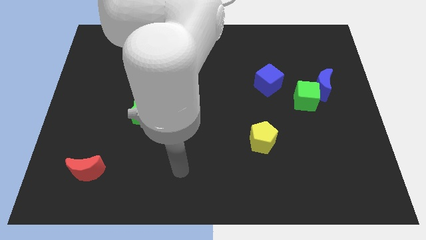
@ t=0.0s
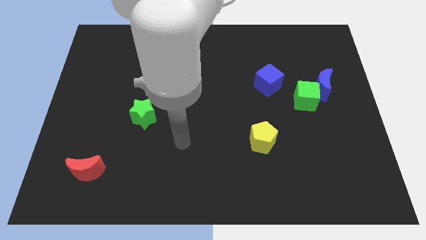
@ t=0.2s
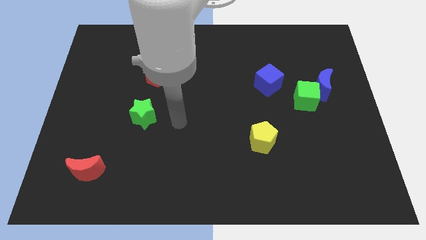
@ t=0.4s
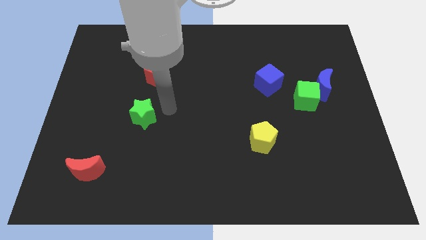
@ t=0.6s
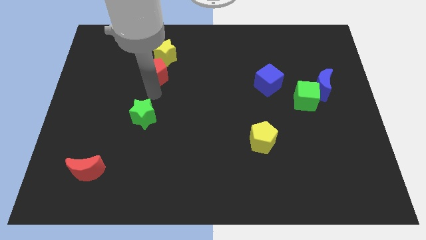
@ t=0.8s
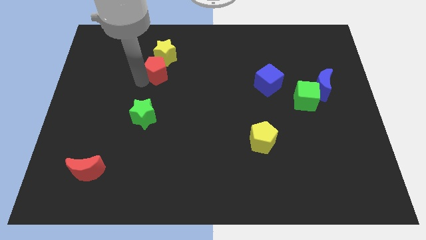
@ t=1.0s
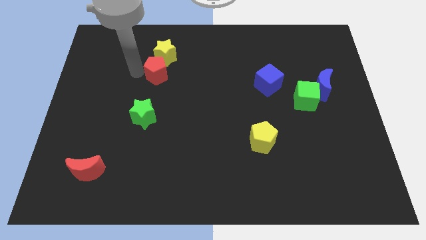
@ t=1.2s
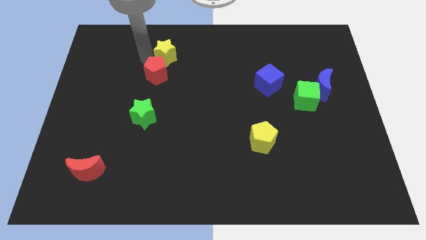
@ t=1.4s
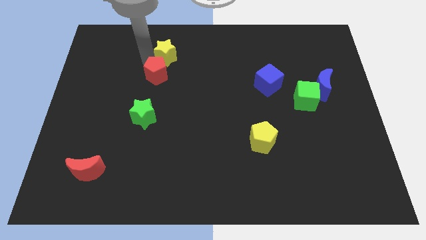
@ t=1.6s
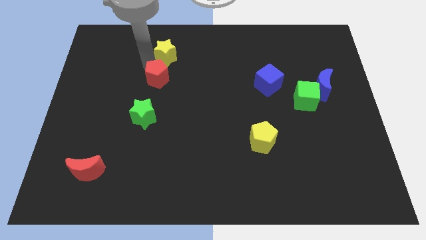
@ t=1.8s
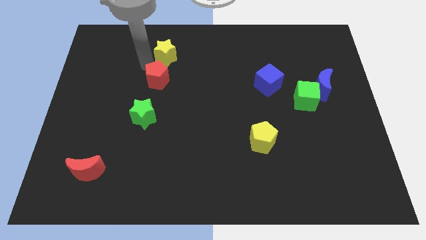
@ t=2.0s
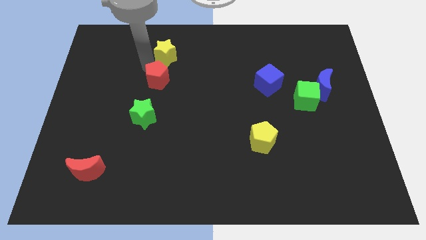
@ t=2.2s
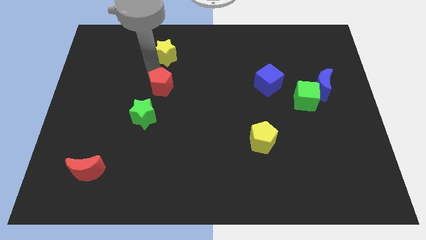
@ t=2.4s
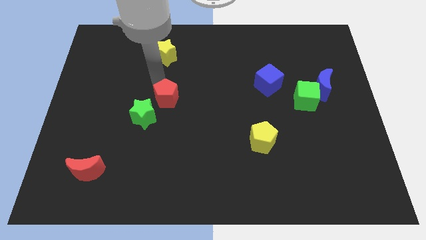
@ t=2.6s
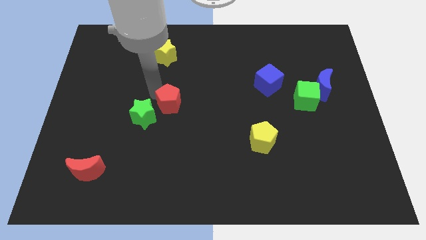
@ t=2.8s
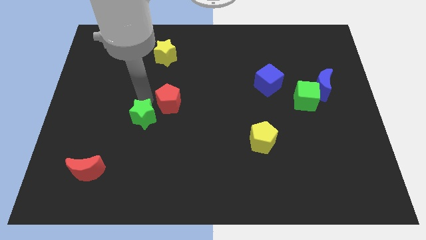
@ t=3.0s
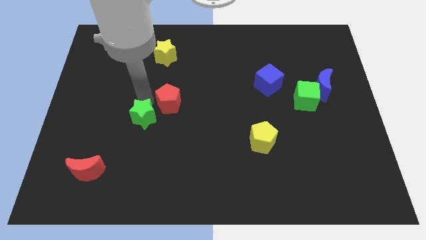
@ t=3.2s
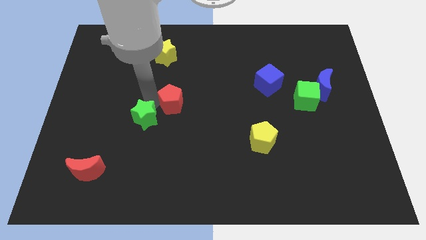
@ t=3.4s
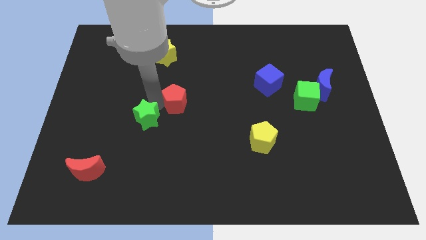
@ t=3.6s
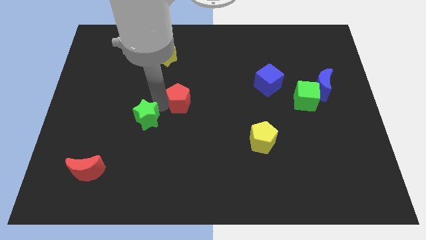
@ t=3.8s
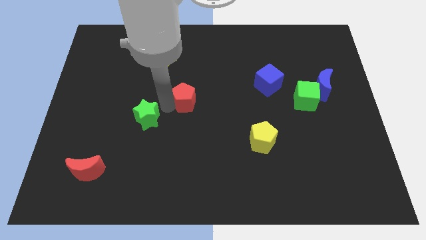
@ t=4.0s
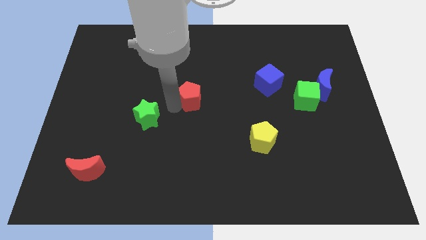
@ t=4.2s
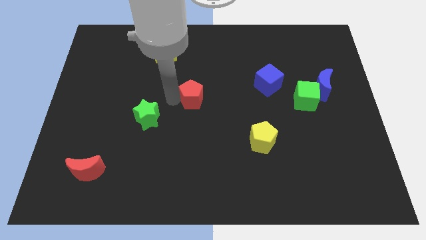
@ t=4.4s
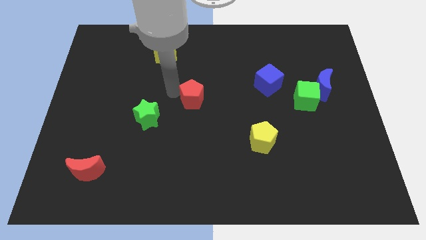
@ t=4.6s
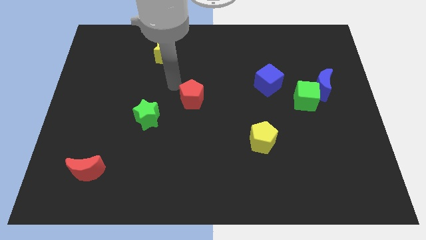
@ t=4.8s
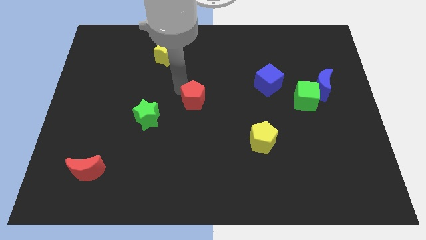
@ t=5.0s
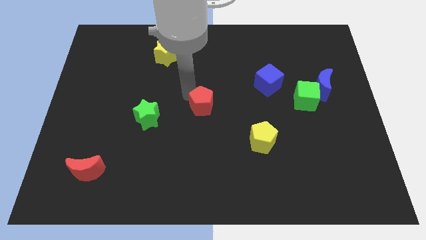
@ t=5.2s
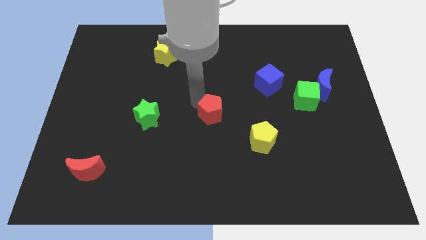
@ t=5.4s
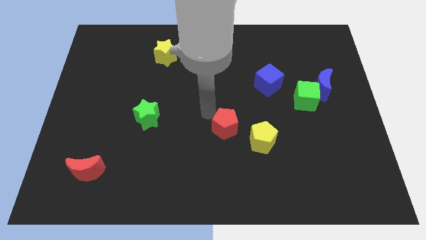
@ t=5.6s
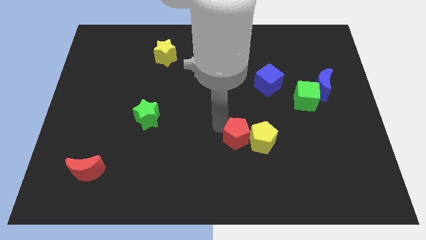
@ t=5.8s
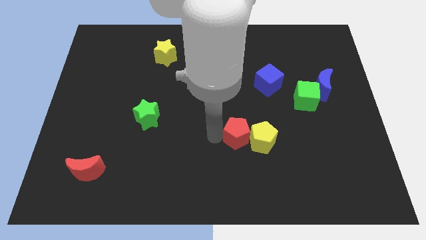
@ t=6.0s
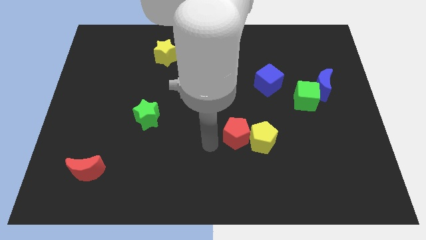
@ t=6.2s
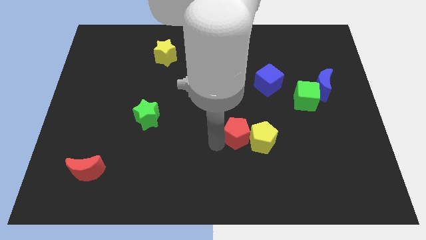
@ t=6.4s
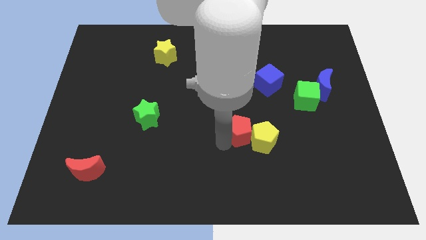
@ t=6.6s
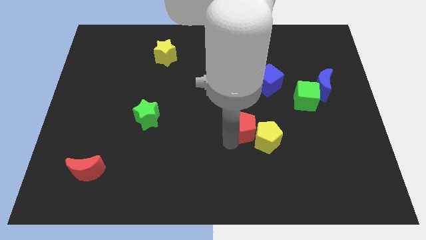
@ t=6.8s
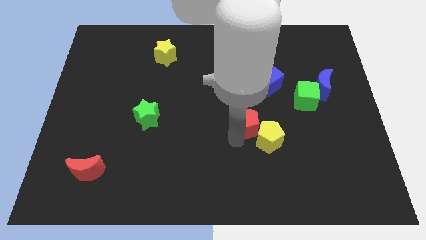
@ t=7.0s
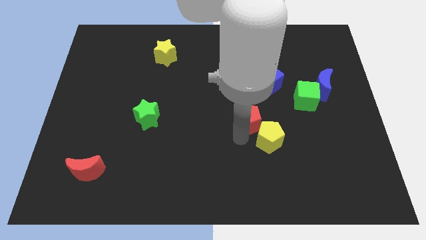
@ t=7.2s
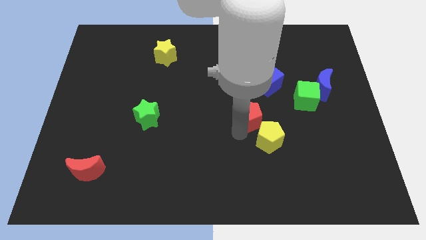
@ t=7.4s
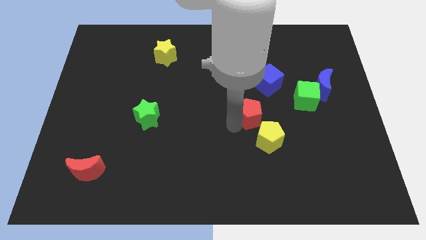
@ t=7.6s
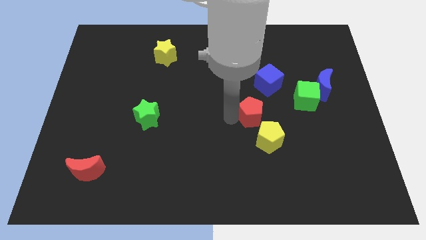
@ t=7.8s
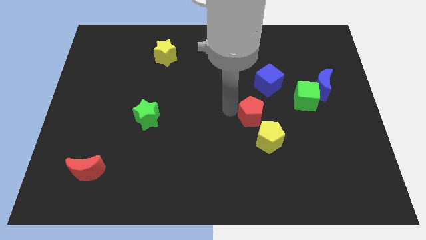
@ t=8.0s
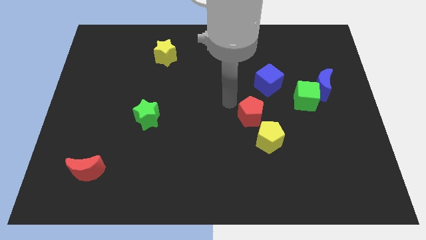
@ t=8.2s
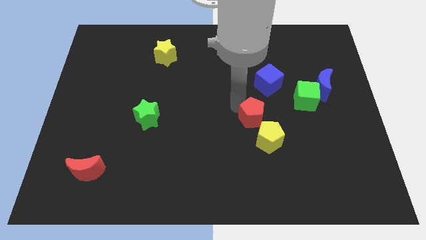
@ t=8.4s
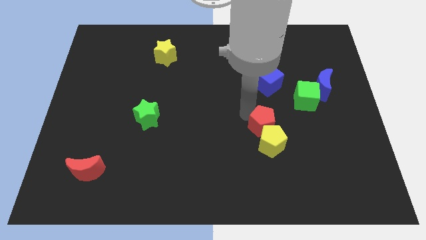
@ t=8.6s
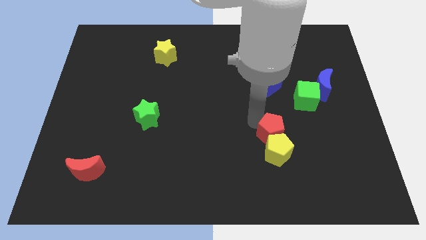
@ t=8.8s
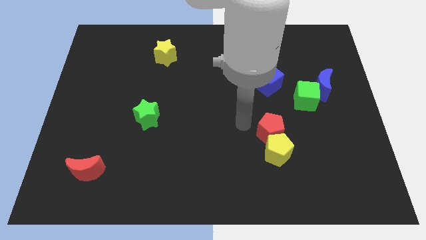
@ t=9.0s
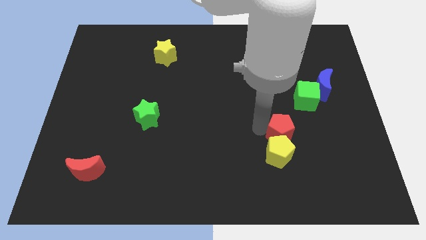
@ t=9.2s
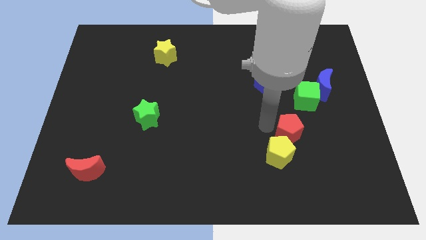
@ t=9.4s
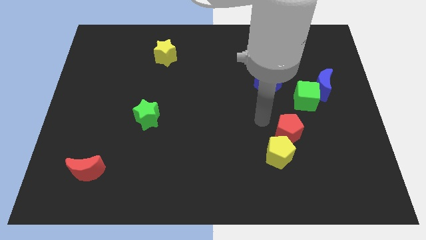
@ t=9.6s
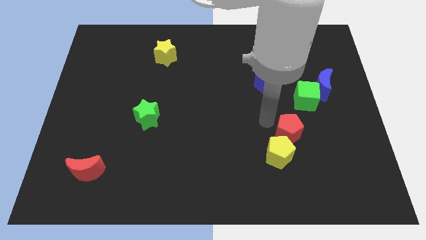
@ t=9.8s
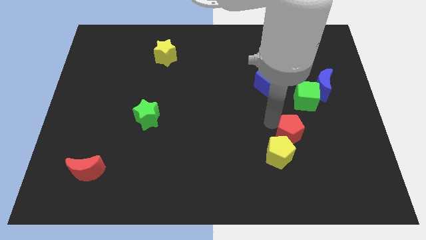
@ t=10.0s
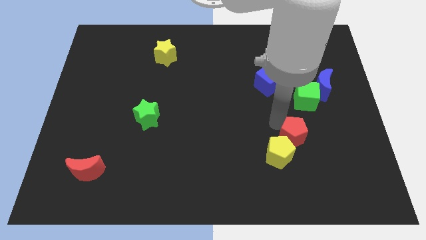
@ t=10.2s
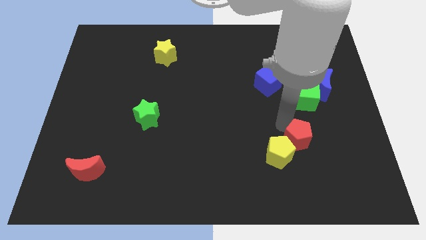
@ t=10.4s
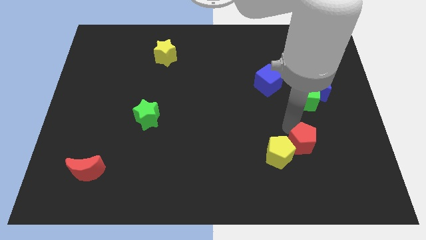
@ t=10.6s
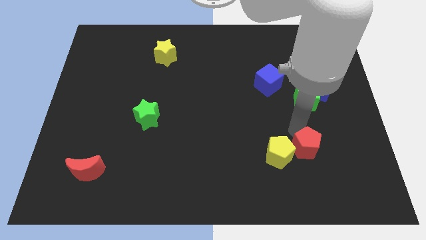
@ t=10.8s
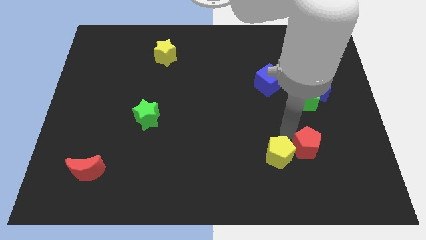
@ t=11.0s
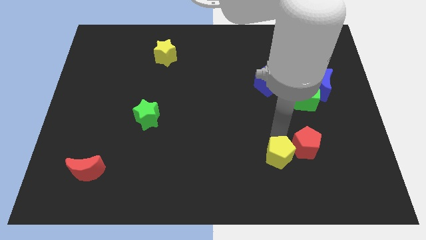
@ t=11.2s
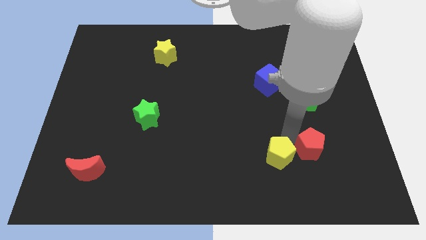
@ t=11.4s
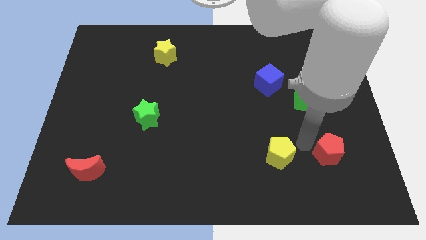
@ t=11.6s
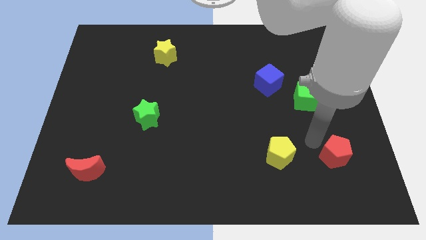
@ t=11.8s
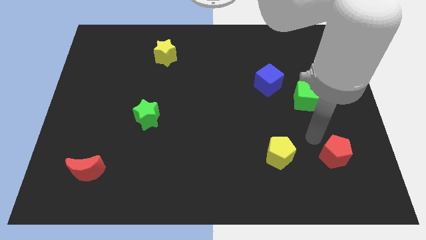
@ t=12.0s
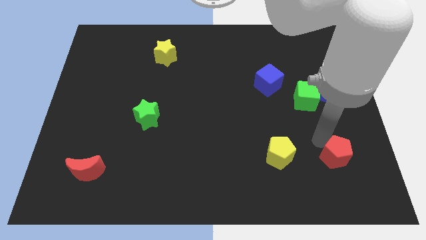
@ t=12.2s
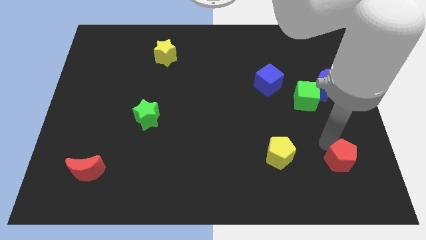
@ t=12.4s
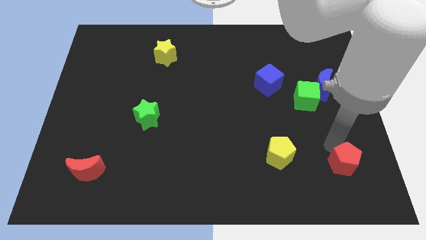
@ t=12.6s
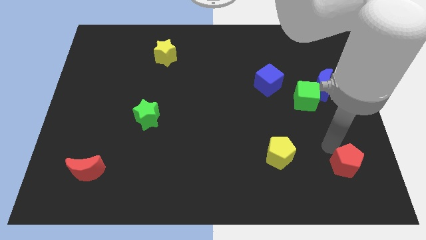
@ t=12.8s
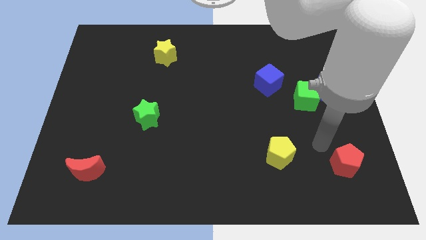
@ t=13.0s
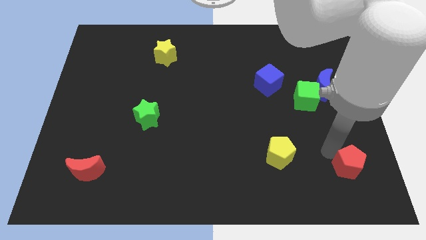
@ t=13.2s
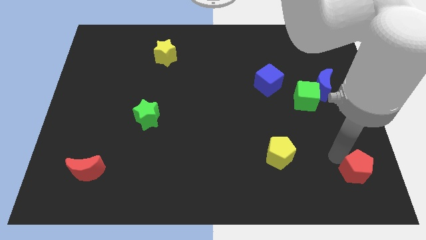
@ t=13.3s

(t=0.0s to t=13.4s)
put the red pentagon to the bottom right
